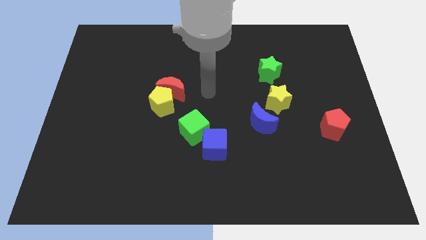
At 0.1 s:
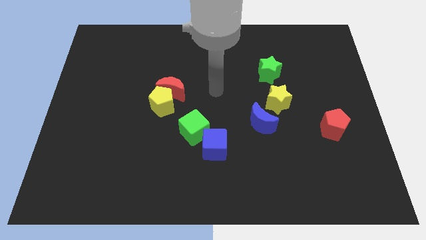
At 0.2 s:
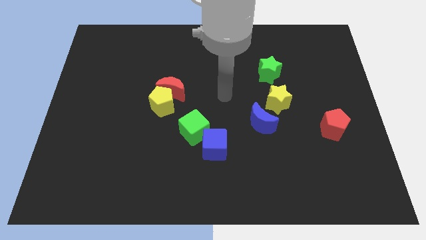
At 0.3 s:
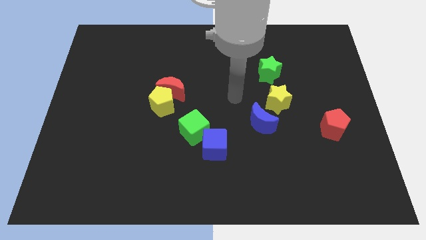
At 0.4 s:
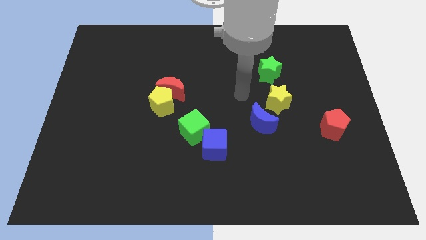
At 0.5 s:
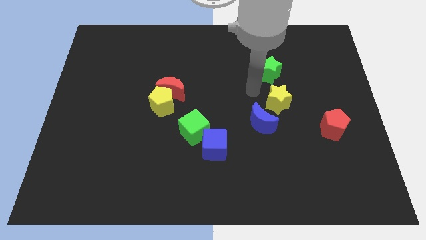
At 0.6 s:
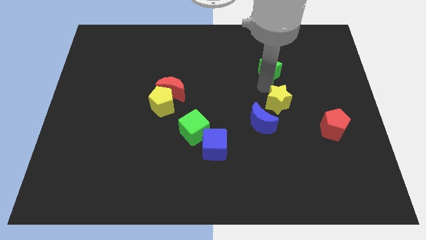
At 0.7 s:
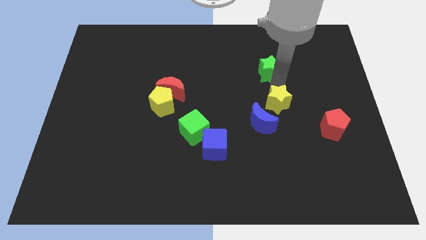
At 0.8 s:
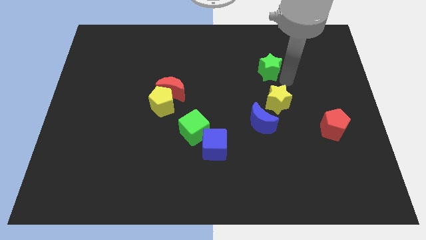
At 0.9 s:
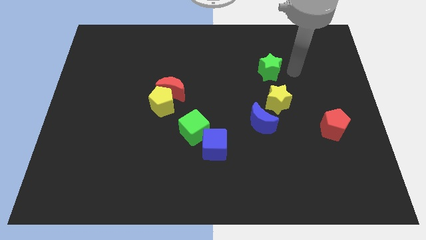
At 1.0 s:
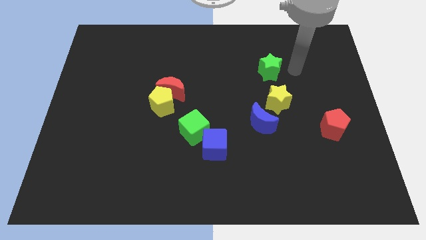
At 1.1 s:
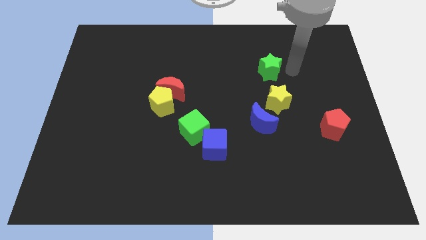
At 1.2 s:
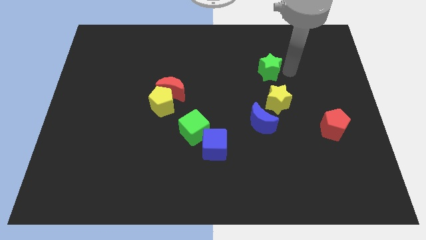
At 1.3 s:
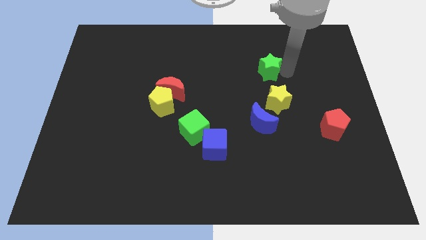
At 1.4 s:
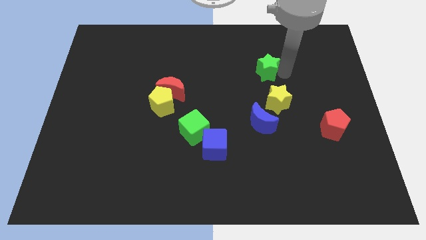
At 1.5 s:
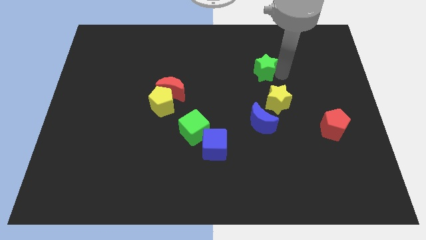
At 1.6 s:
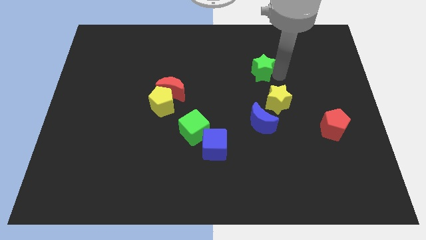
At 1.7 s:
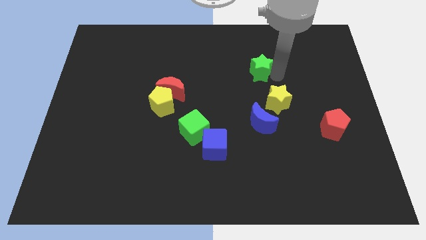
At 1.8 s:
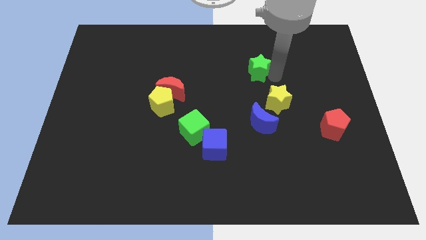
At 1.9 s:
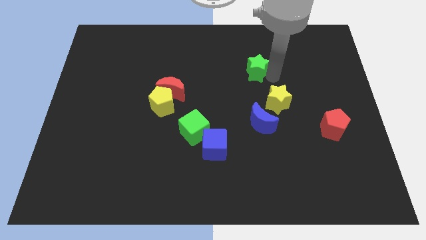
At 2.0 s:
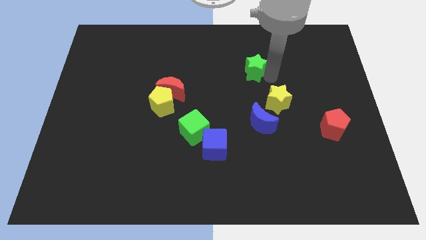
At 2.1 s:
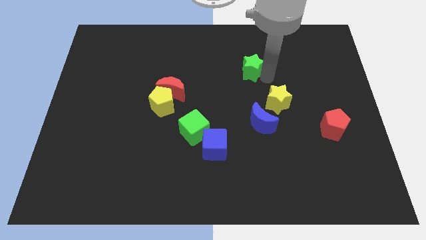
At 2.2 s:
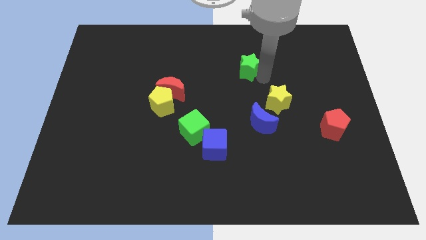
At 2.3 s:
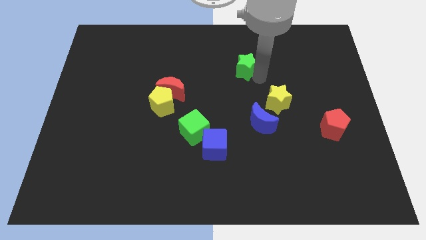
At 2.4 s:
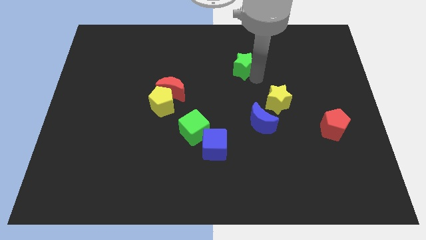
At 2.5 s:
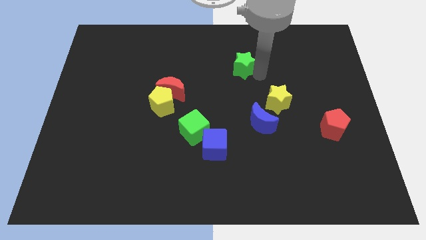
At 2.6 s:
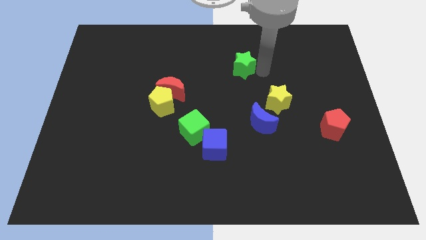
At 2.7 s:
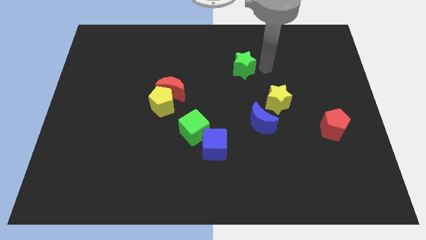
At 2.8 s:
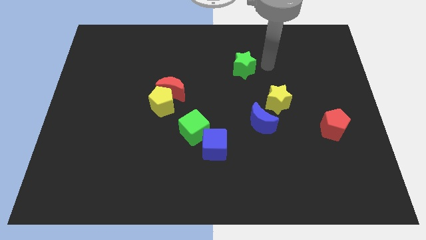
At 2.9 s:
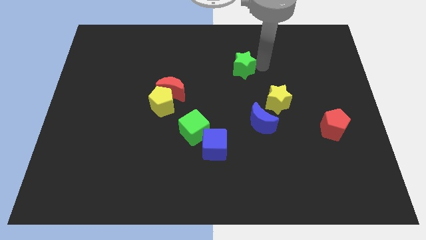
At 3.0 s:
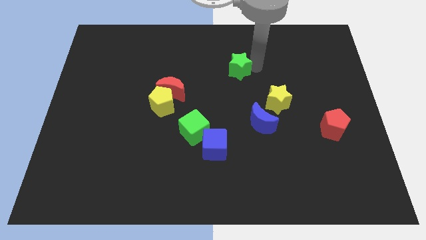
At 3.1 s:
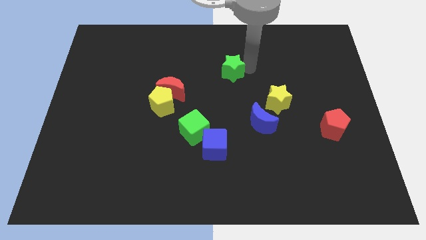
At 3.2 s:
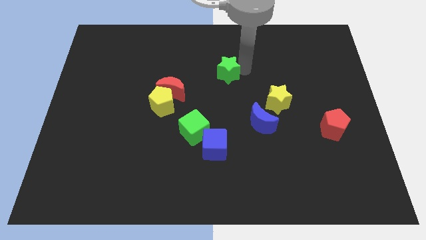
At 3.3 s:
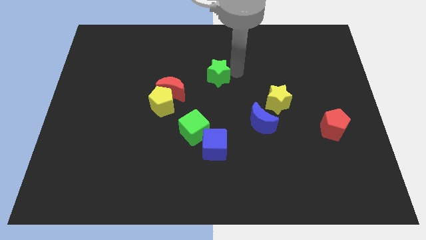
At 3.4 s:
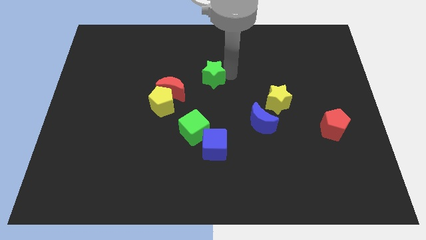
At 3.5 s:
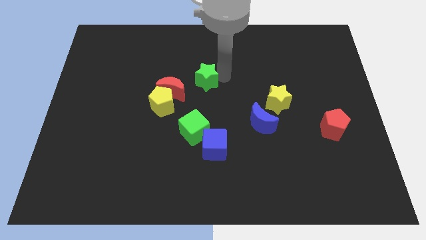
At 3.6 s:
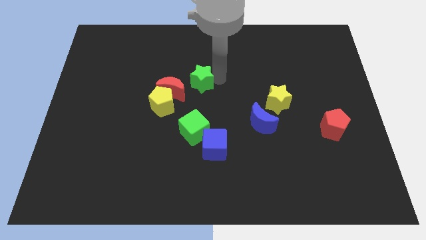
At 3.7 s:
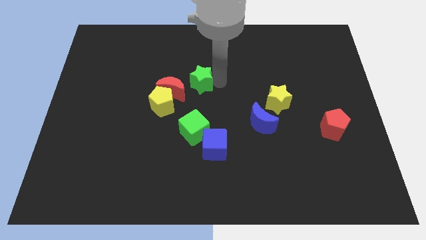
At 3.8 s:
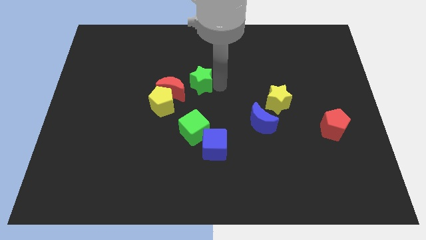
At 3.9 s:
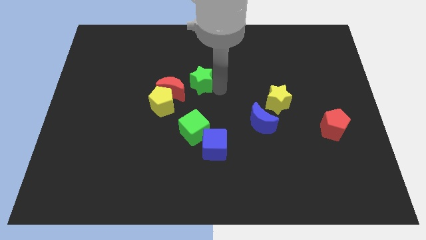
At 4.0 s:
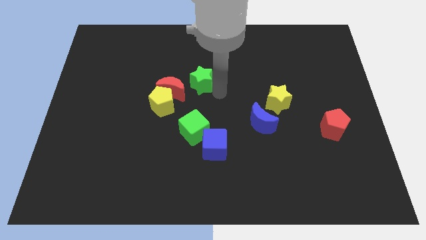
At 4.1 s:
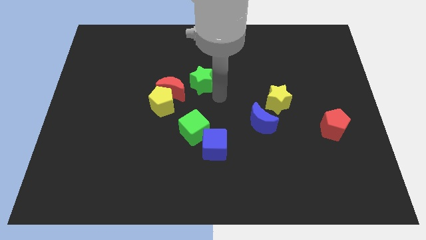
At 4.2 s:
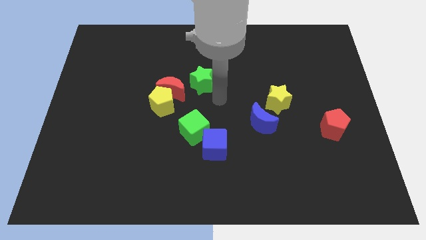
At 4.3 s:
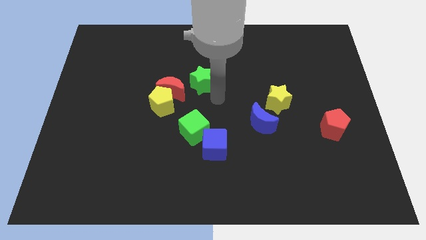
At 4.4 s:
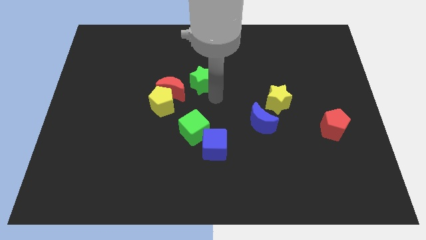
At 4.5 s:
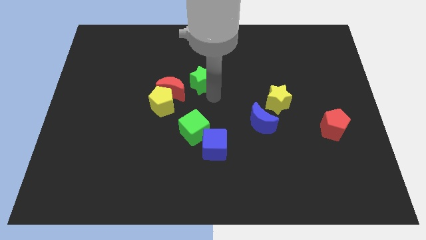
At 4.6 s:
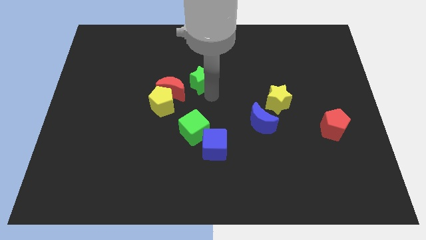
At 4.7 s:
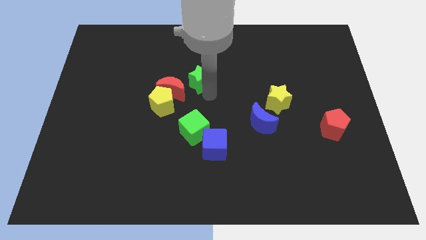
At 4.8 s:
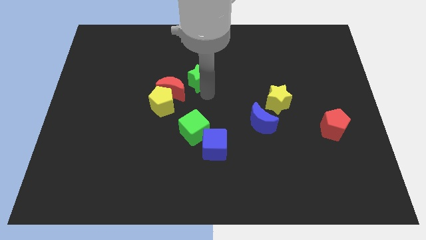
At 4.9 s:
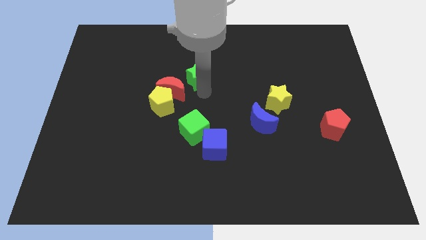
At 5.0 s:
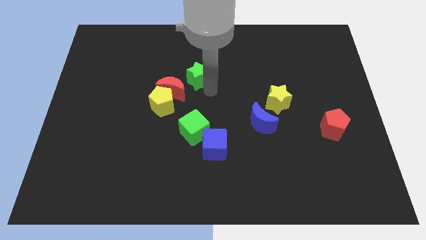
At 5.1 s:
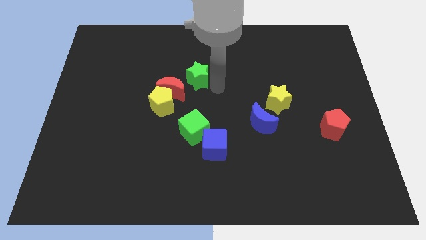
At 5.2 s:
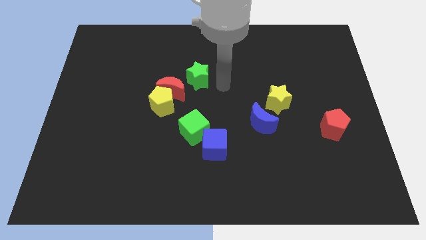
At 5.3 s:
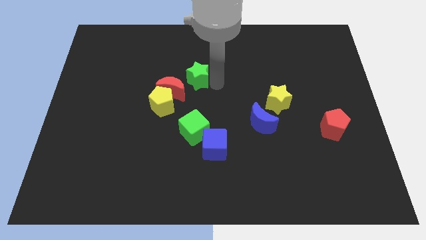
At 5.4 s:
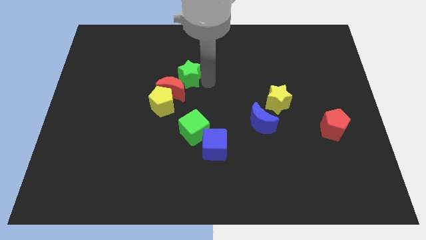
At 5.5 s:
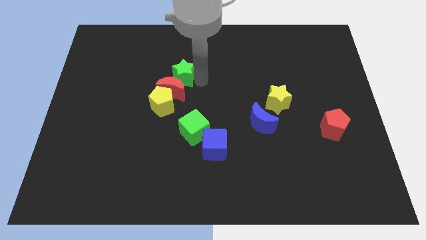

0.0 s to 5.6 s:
push the green star to the top of the yellow pentagon

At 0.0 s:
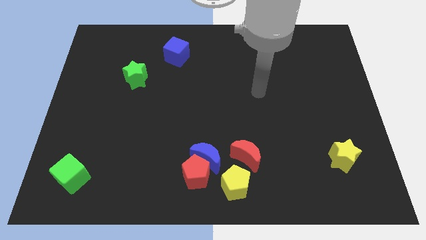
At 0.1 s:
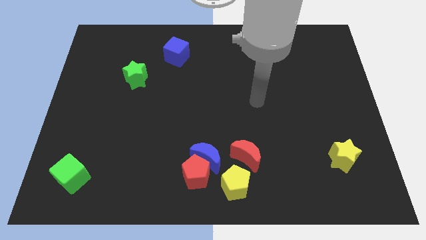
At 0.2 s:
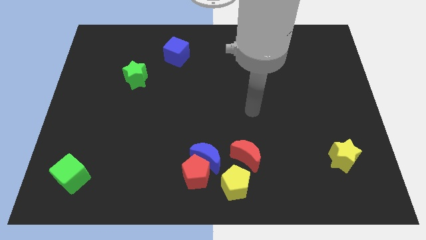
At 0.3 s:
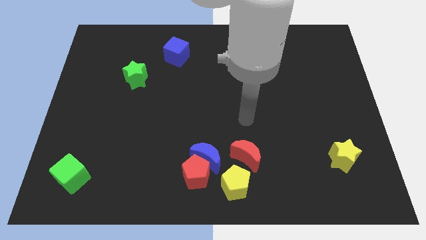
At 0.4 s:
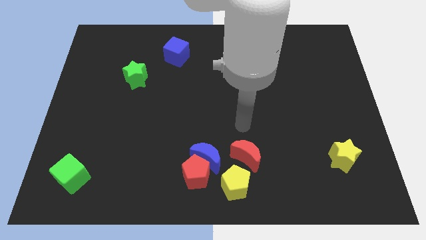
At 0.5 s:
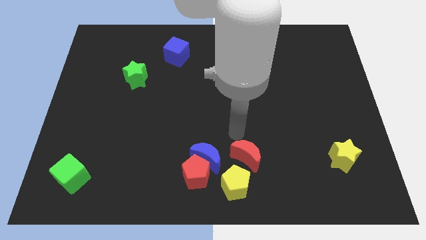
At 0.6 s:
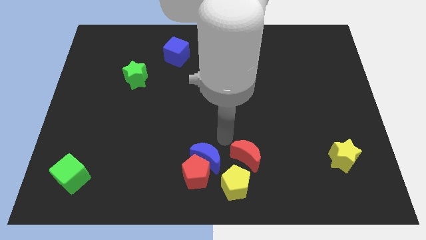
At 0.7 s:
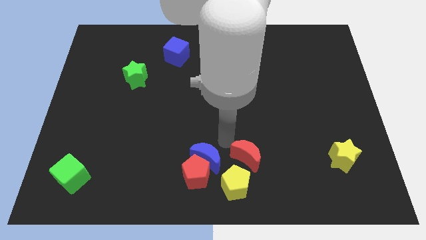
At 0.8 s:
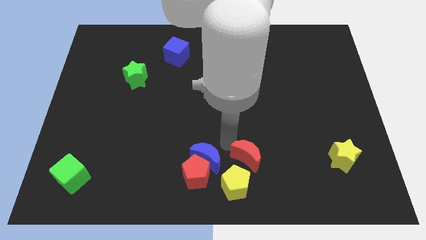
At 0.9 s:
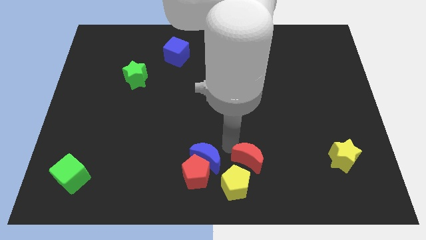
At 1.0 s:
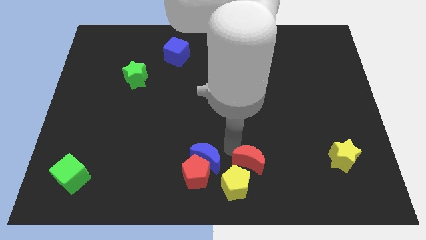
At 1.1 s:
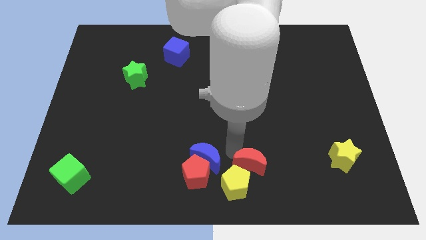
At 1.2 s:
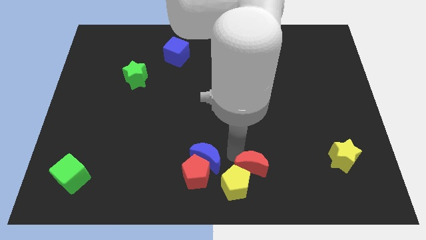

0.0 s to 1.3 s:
put the red moon to the right of the yellow pentagon

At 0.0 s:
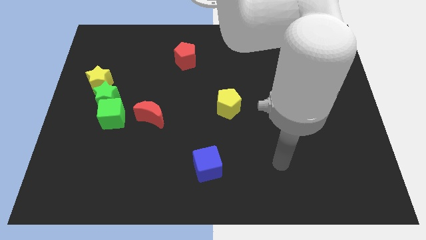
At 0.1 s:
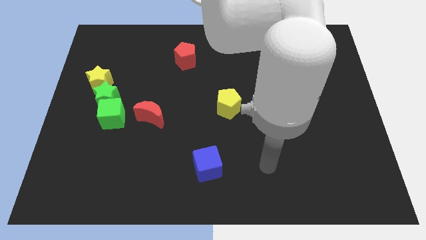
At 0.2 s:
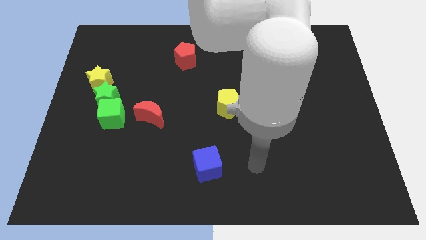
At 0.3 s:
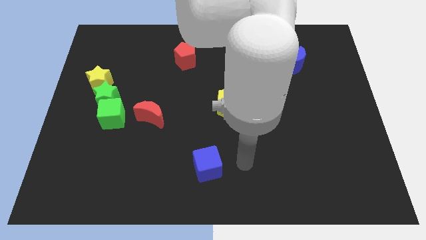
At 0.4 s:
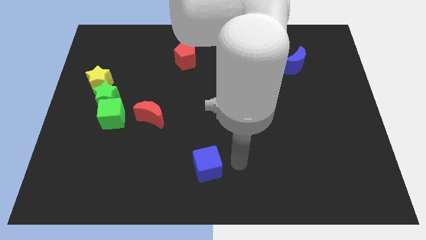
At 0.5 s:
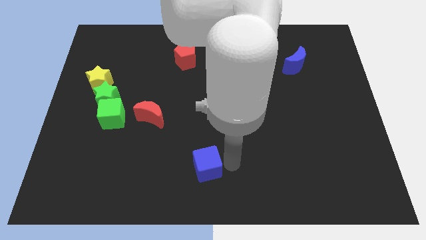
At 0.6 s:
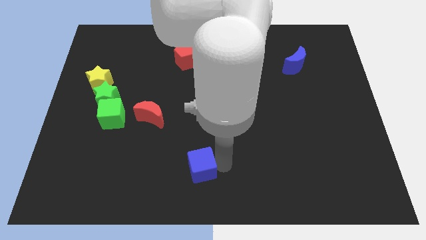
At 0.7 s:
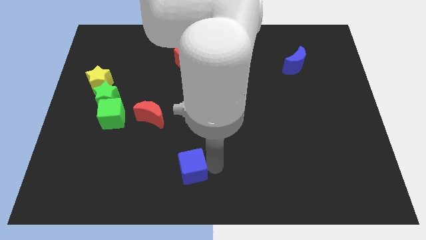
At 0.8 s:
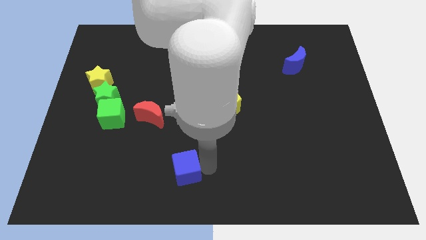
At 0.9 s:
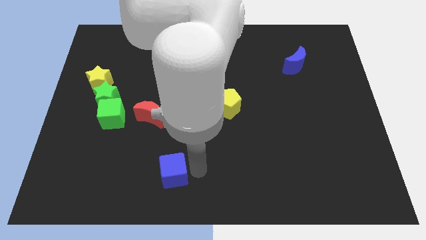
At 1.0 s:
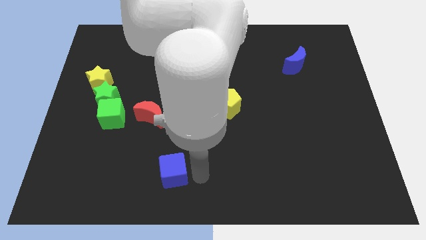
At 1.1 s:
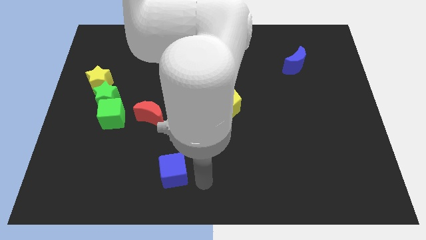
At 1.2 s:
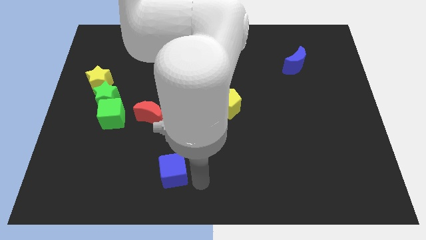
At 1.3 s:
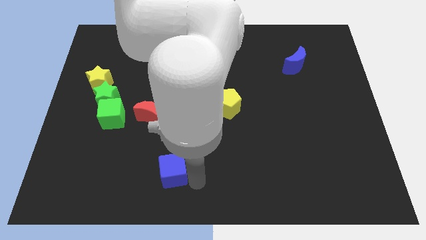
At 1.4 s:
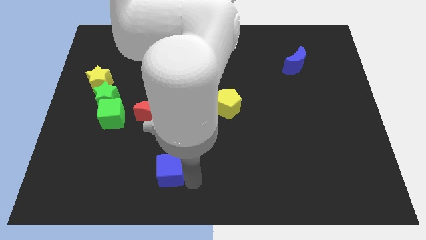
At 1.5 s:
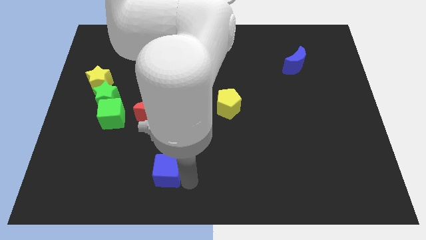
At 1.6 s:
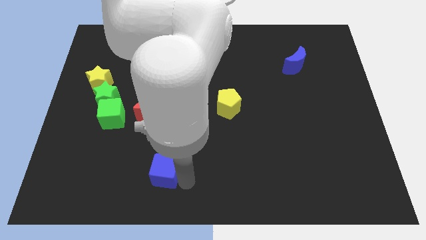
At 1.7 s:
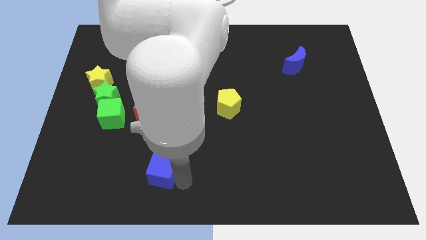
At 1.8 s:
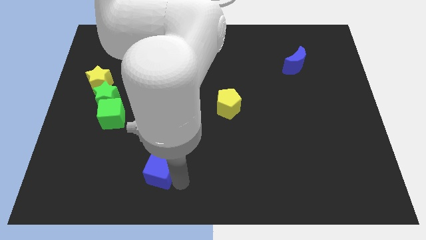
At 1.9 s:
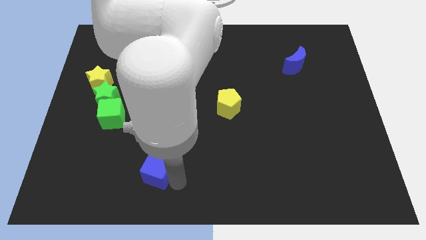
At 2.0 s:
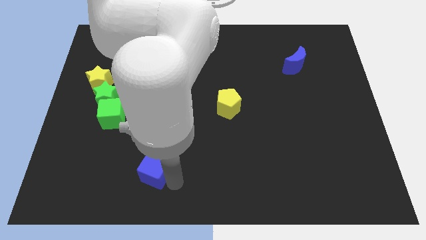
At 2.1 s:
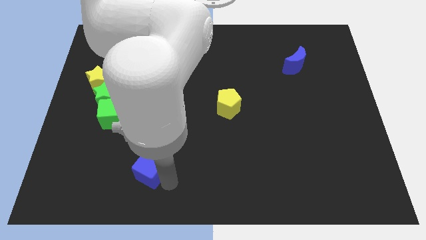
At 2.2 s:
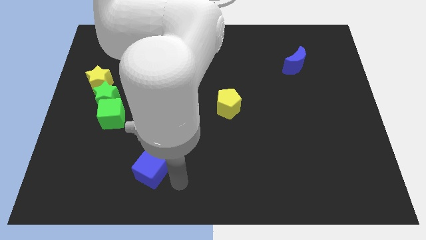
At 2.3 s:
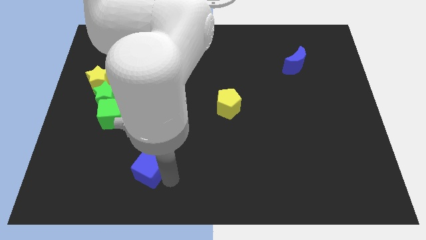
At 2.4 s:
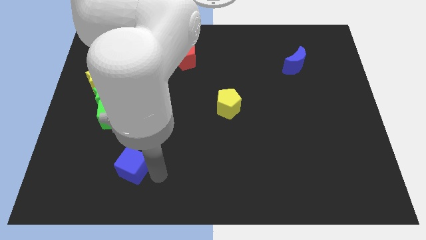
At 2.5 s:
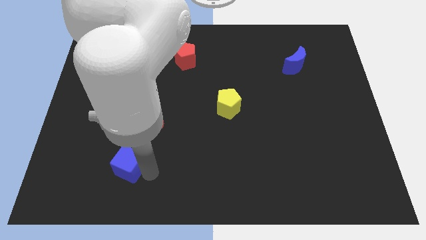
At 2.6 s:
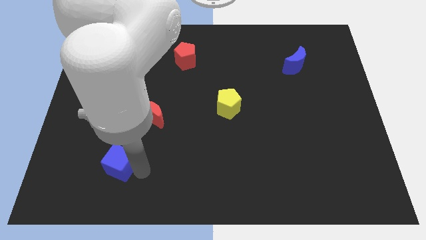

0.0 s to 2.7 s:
push the blue cube to the bottom of the green cube
